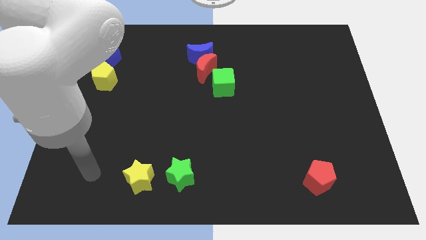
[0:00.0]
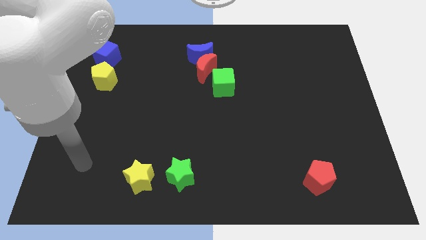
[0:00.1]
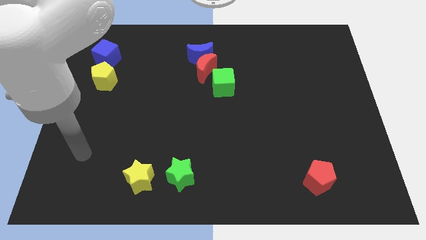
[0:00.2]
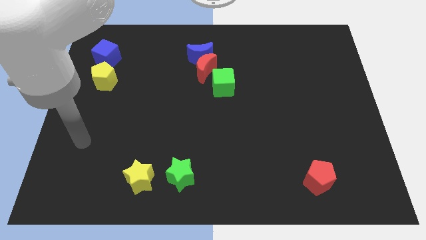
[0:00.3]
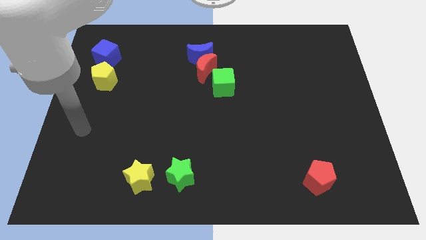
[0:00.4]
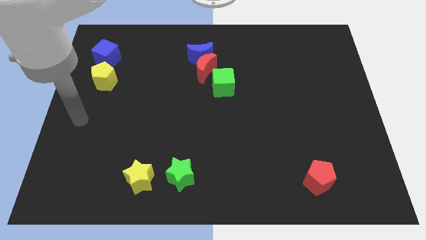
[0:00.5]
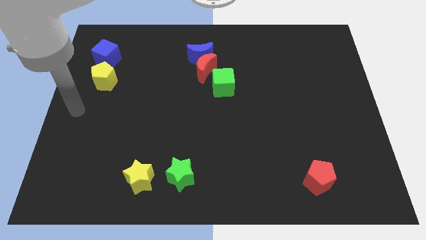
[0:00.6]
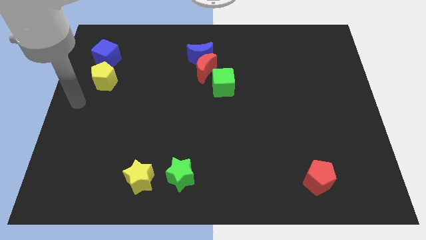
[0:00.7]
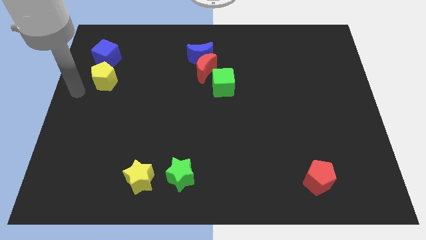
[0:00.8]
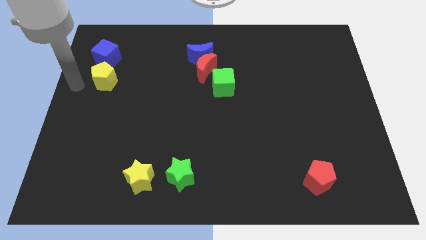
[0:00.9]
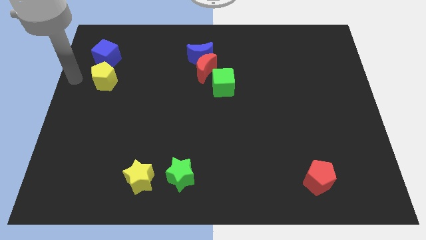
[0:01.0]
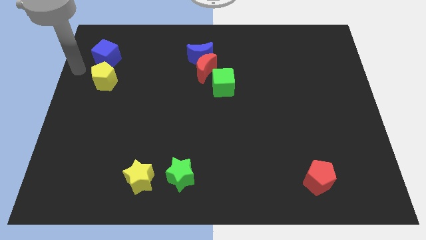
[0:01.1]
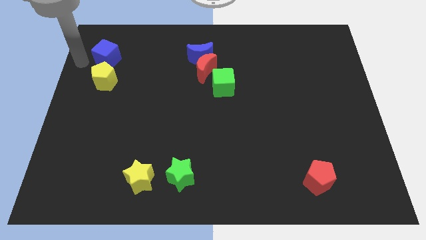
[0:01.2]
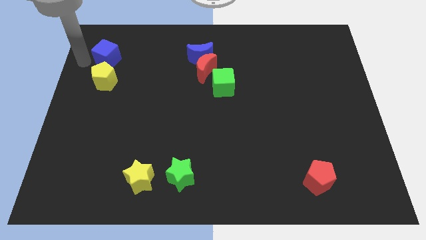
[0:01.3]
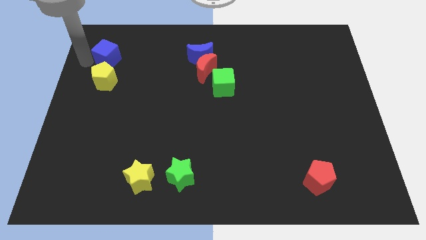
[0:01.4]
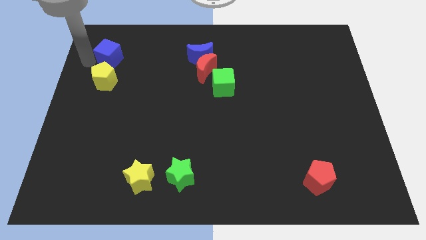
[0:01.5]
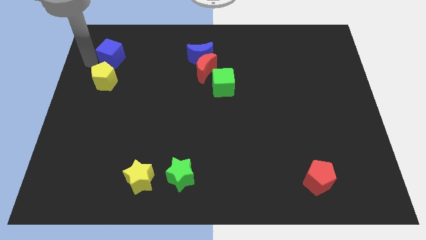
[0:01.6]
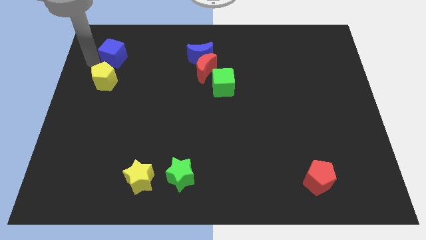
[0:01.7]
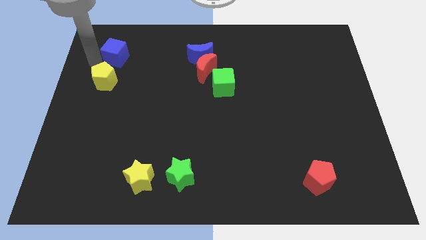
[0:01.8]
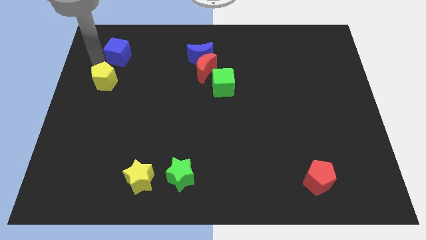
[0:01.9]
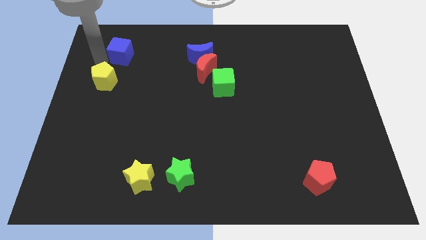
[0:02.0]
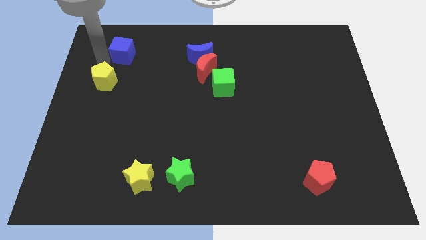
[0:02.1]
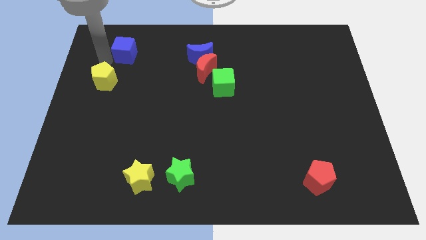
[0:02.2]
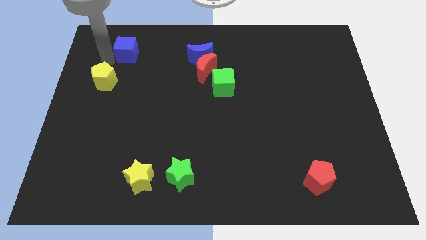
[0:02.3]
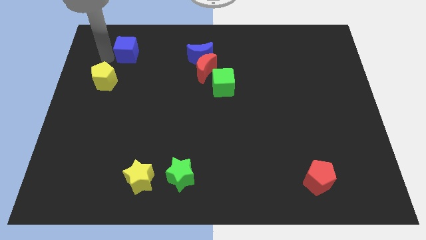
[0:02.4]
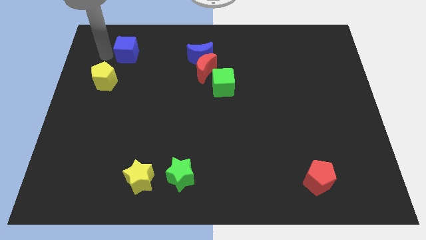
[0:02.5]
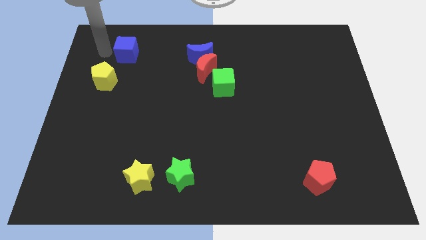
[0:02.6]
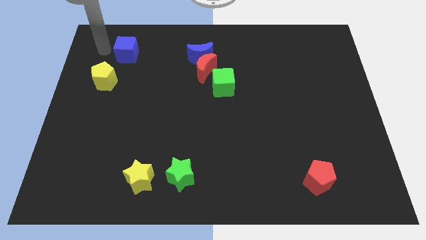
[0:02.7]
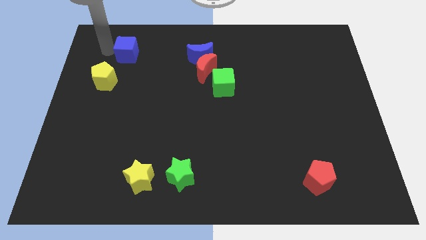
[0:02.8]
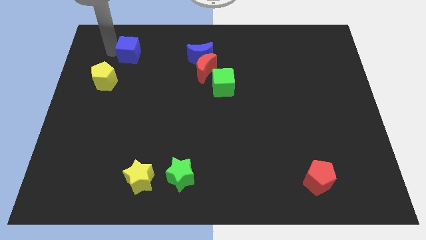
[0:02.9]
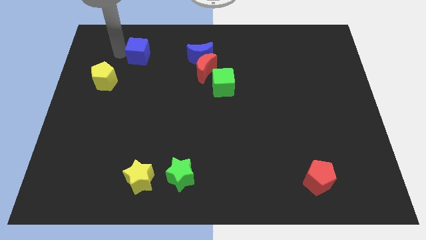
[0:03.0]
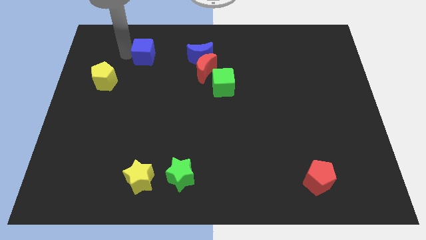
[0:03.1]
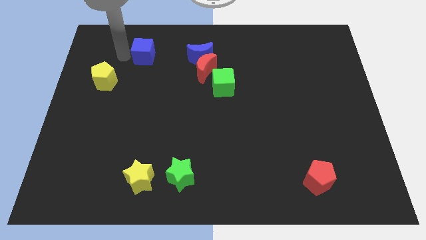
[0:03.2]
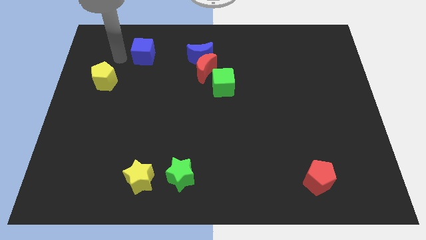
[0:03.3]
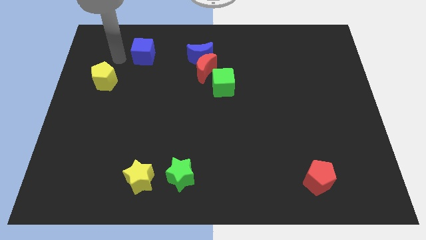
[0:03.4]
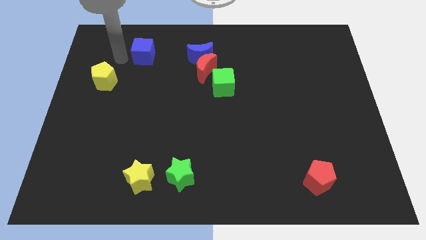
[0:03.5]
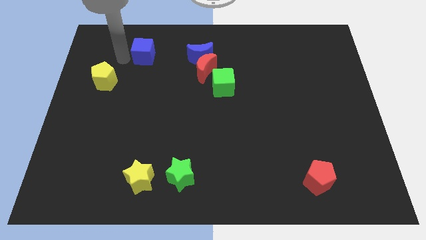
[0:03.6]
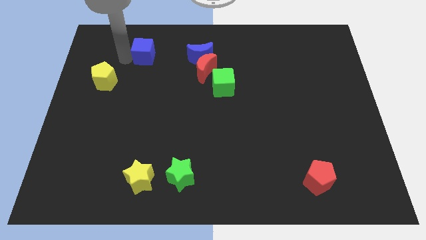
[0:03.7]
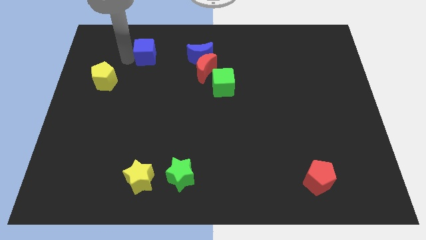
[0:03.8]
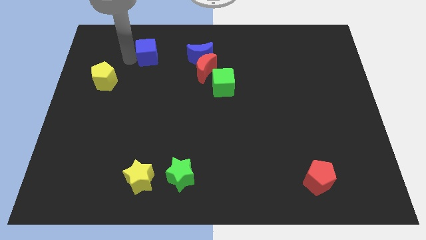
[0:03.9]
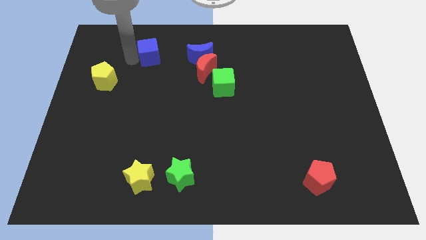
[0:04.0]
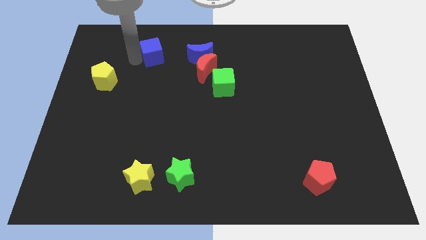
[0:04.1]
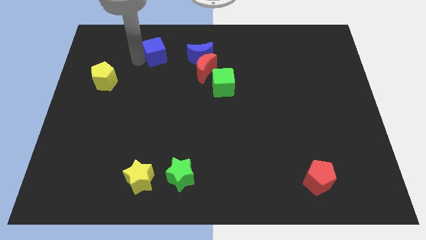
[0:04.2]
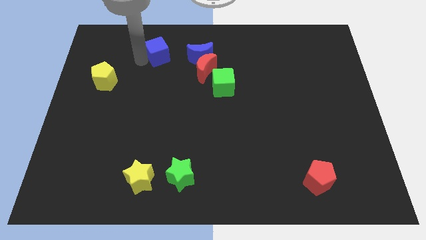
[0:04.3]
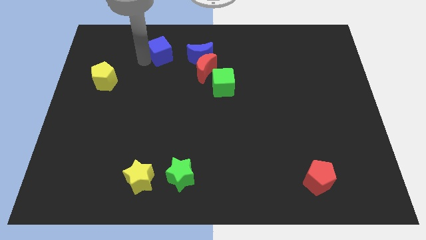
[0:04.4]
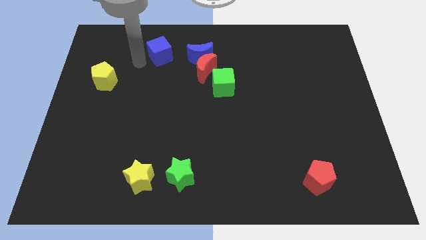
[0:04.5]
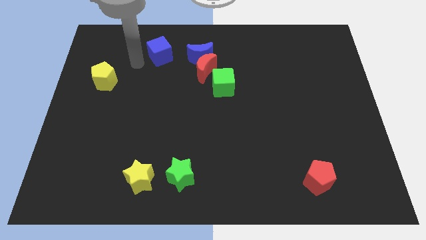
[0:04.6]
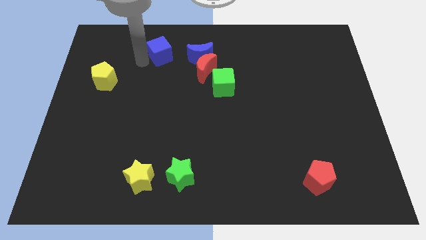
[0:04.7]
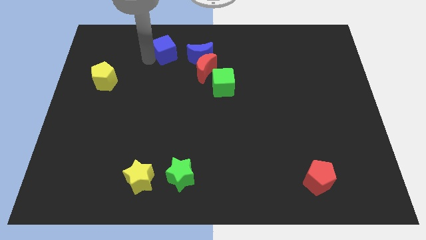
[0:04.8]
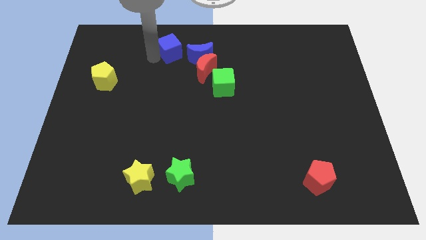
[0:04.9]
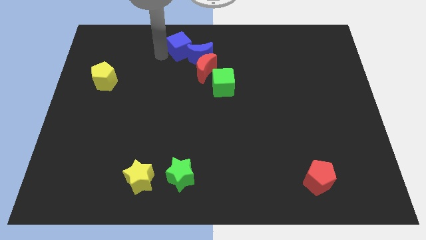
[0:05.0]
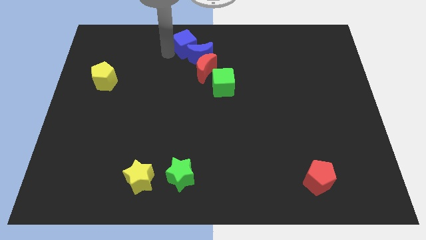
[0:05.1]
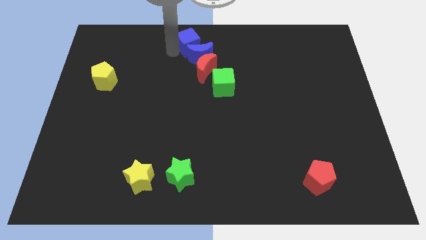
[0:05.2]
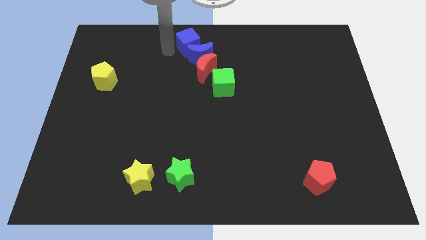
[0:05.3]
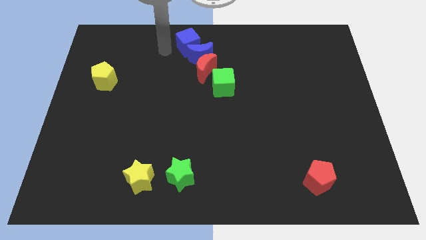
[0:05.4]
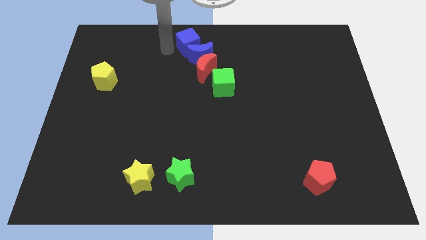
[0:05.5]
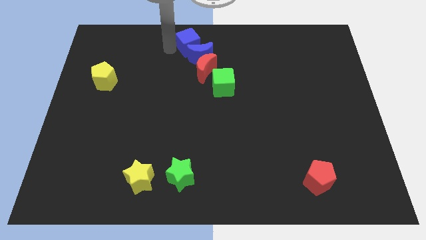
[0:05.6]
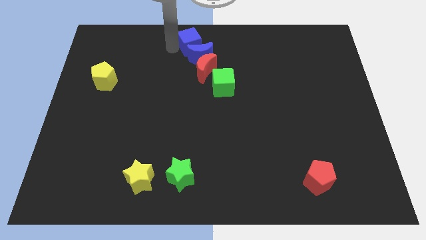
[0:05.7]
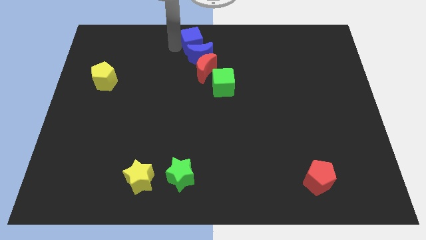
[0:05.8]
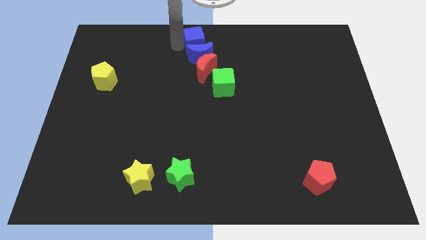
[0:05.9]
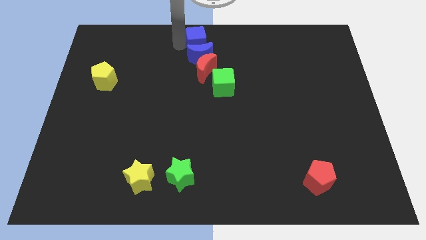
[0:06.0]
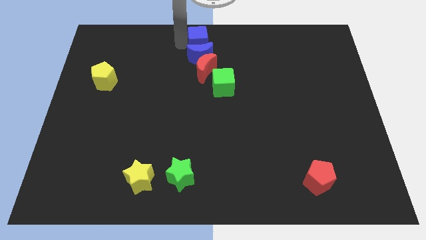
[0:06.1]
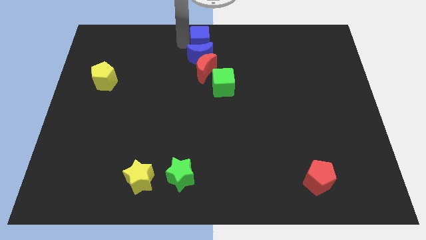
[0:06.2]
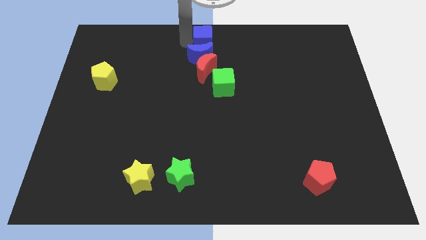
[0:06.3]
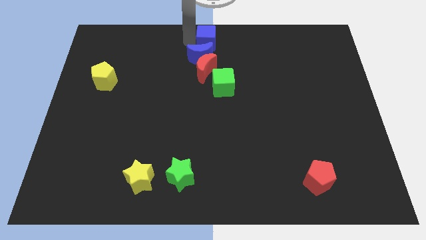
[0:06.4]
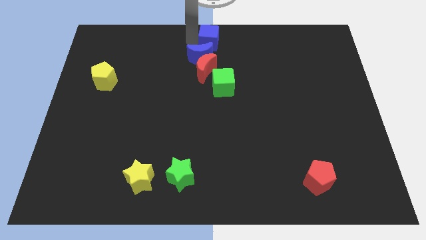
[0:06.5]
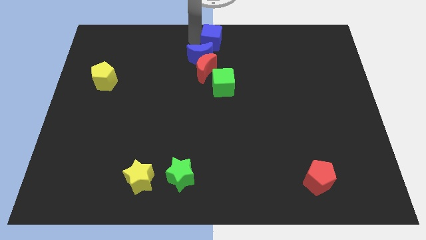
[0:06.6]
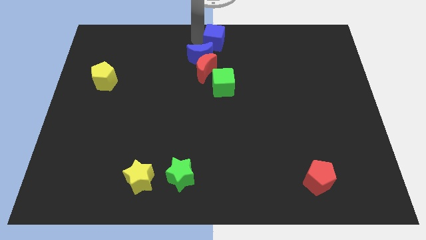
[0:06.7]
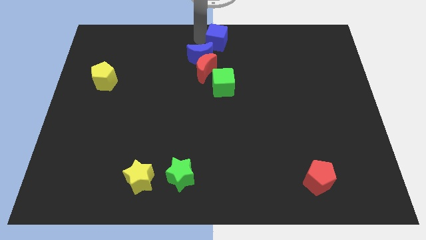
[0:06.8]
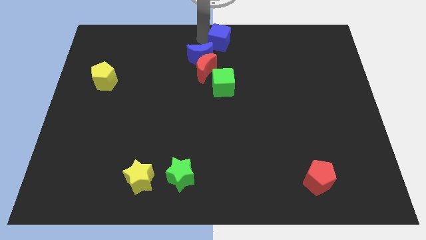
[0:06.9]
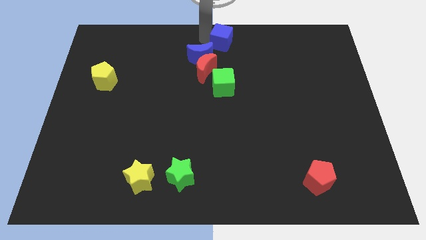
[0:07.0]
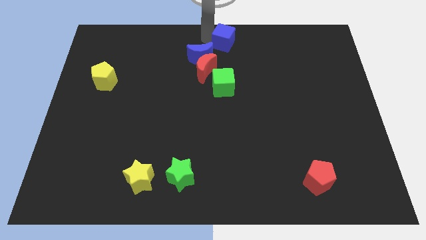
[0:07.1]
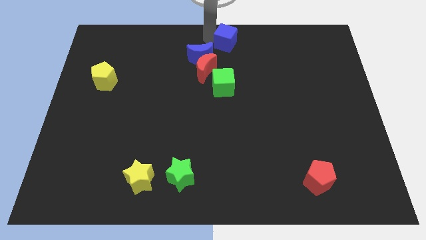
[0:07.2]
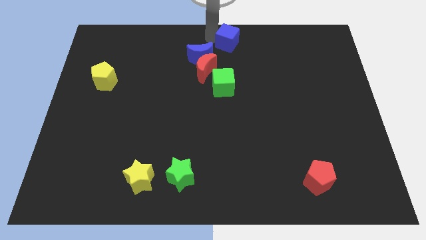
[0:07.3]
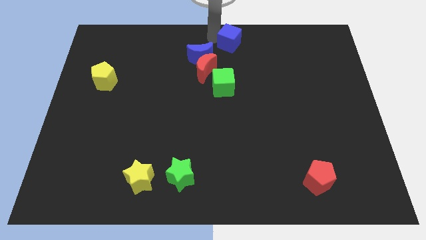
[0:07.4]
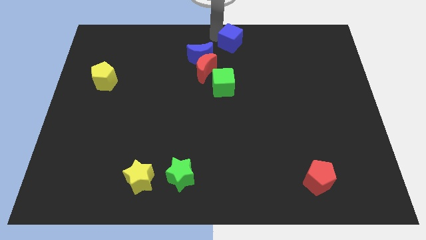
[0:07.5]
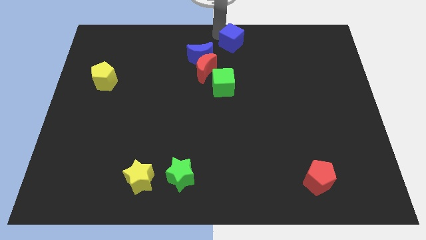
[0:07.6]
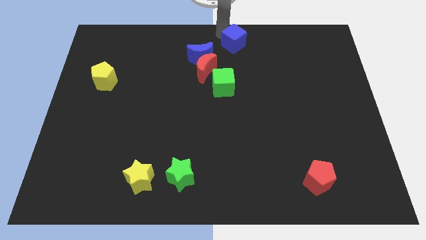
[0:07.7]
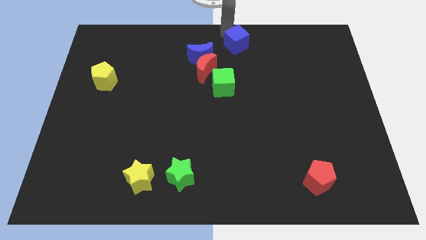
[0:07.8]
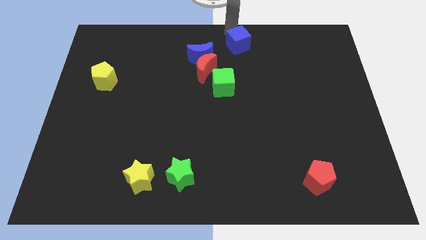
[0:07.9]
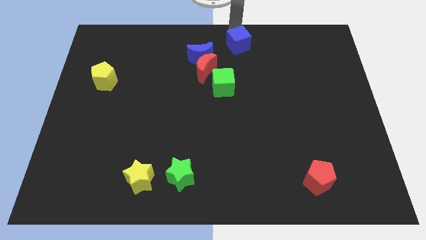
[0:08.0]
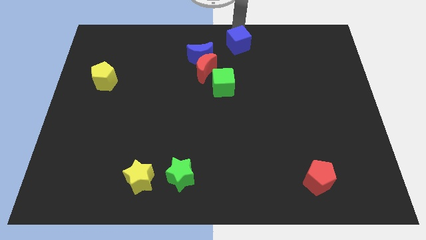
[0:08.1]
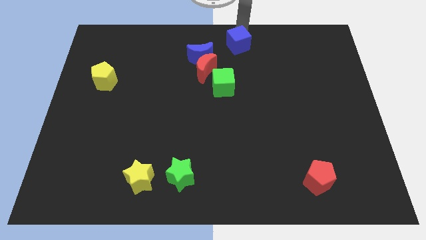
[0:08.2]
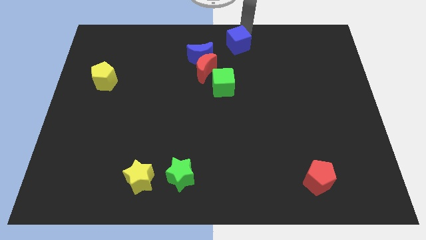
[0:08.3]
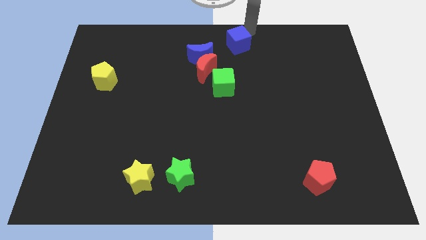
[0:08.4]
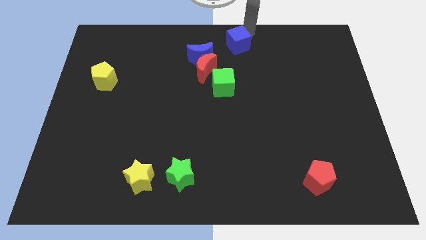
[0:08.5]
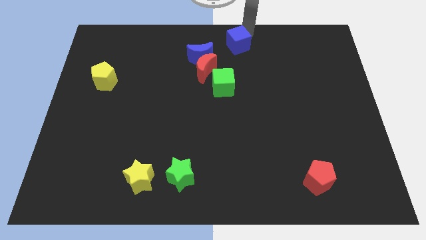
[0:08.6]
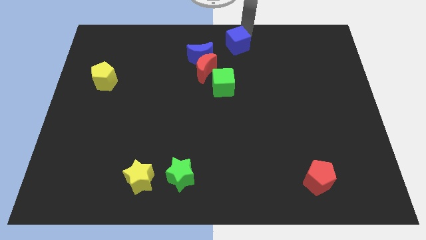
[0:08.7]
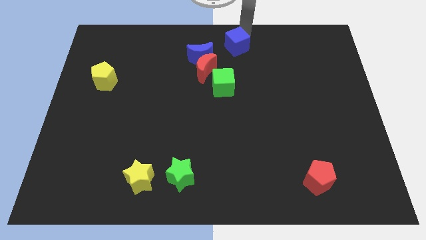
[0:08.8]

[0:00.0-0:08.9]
slide the blue cube just right of the blue moon
